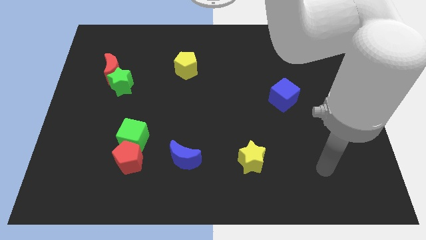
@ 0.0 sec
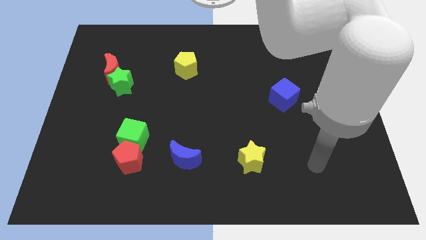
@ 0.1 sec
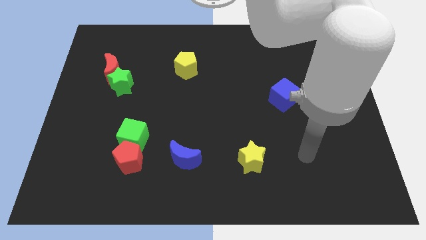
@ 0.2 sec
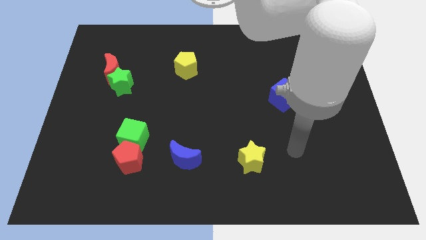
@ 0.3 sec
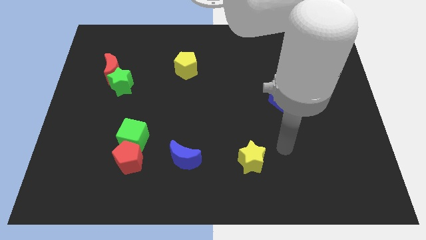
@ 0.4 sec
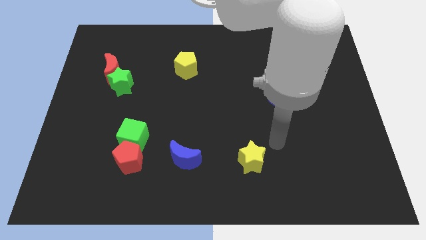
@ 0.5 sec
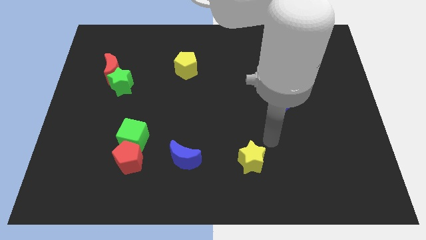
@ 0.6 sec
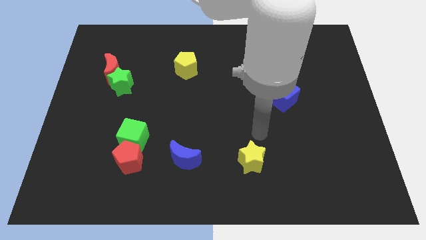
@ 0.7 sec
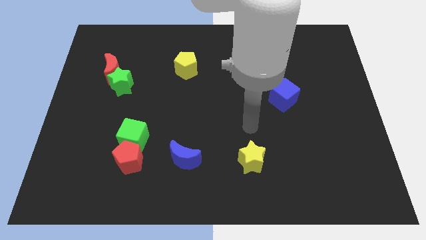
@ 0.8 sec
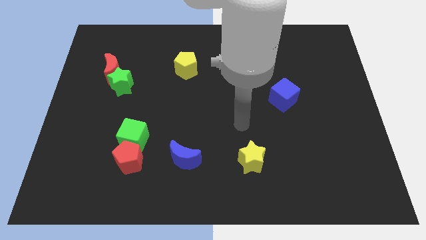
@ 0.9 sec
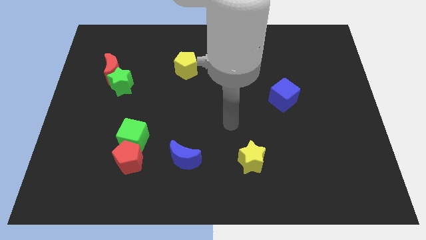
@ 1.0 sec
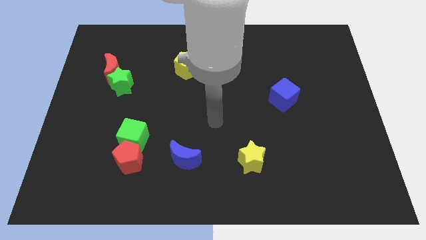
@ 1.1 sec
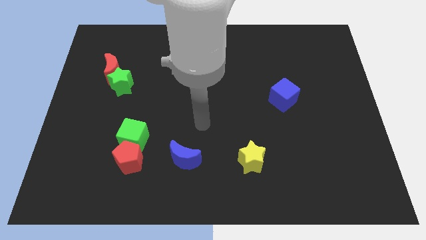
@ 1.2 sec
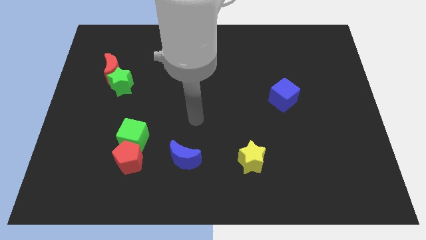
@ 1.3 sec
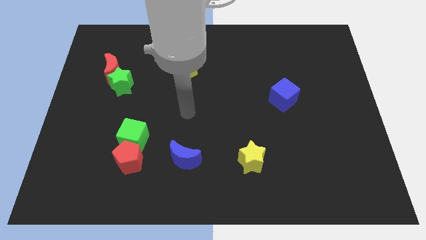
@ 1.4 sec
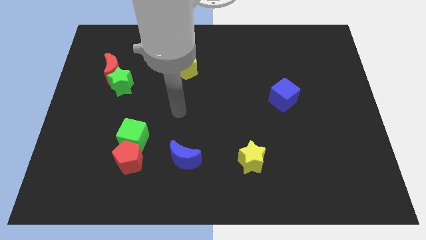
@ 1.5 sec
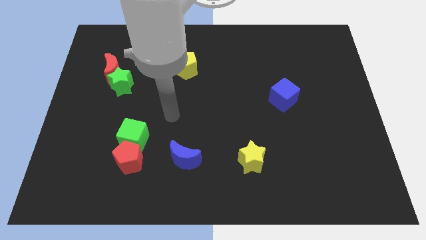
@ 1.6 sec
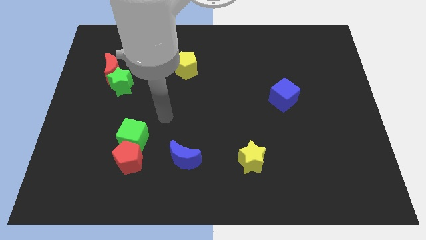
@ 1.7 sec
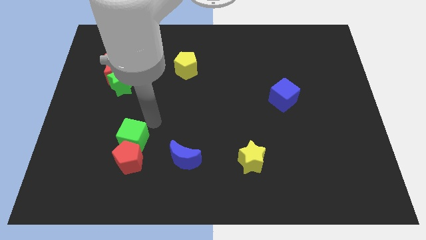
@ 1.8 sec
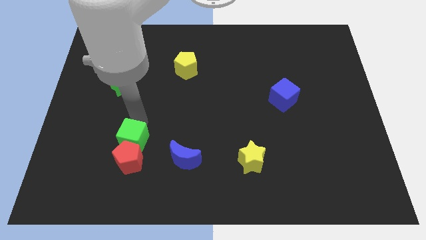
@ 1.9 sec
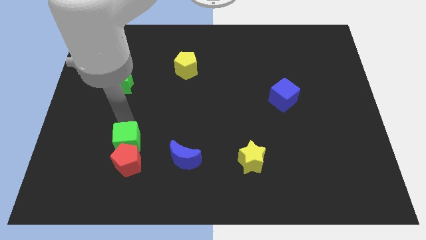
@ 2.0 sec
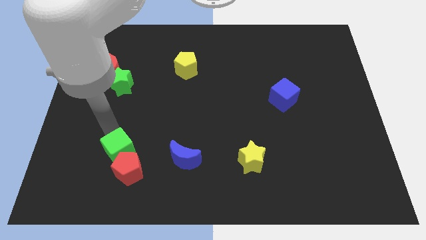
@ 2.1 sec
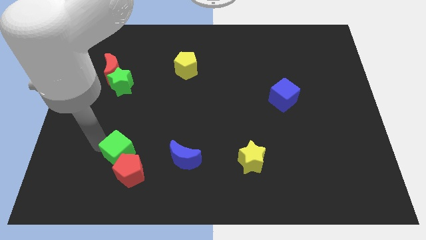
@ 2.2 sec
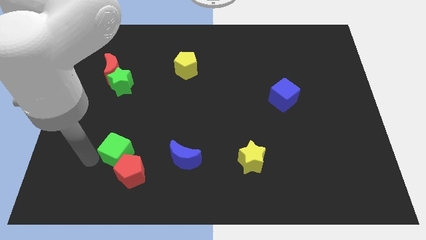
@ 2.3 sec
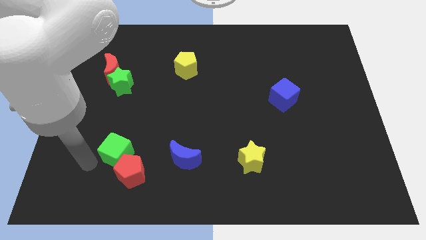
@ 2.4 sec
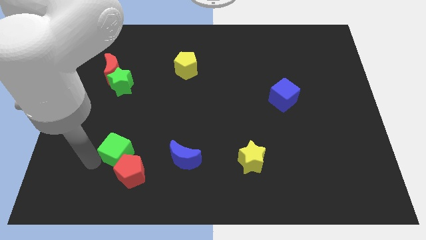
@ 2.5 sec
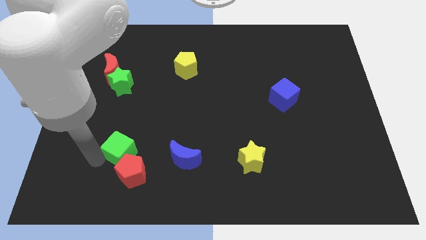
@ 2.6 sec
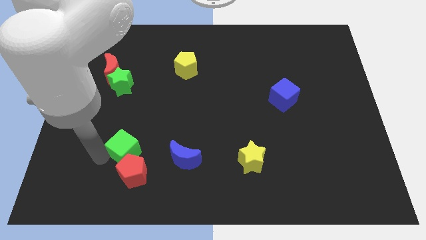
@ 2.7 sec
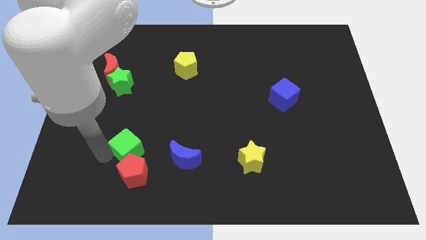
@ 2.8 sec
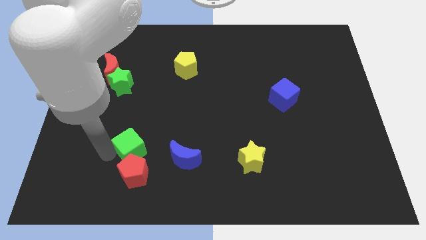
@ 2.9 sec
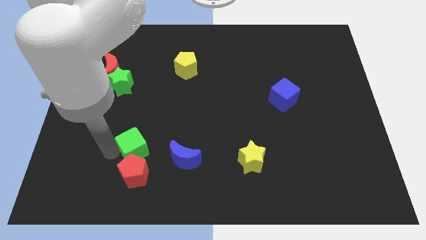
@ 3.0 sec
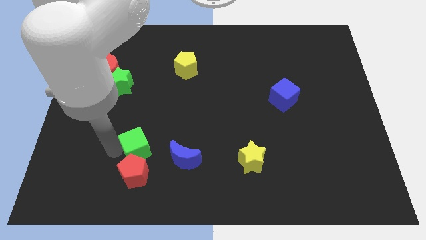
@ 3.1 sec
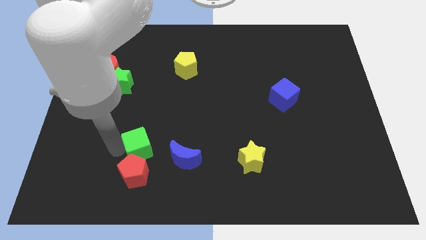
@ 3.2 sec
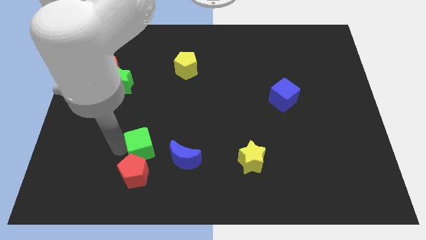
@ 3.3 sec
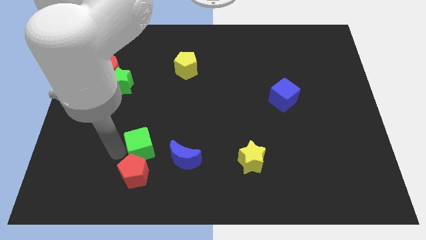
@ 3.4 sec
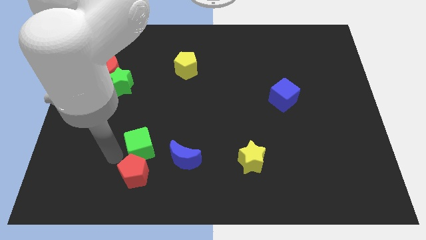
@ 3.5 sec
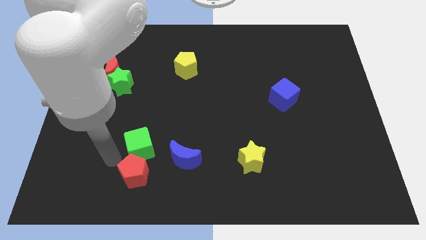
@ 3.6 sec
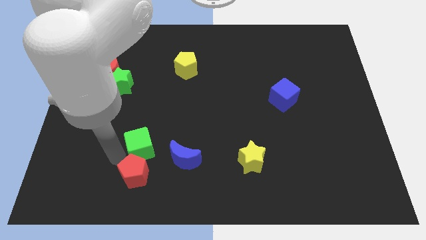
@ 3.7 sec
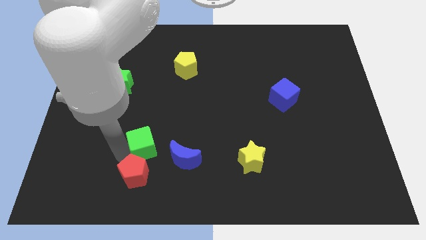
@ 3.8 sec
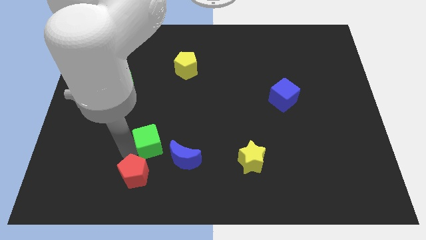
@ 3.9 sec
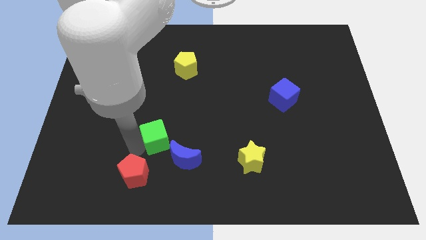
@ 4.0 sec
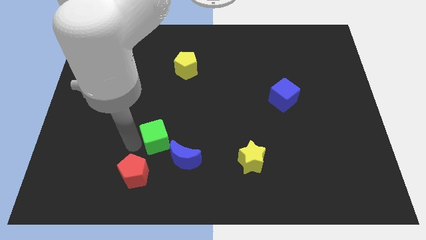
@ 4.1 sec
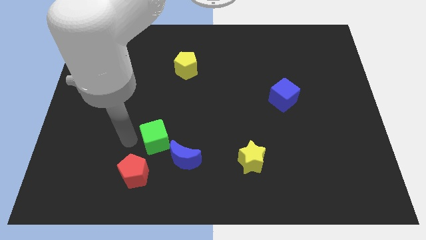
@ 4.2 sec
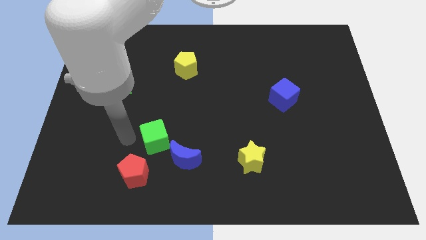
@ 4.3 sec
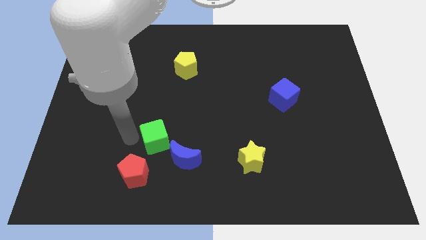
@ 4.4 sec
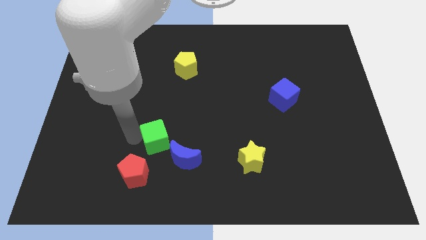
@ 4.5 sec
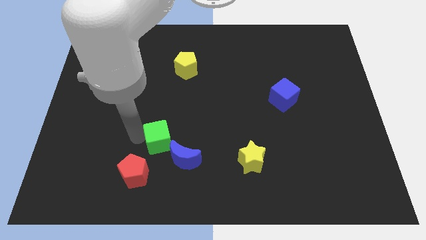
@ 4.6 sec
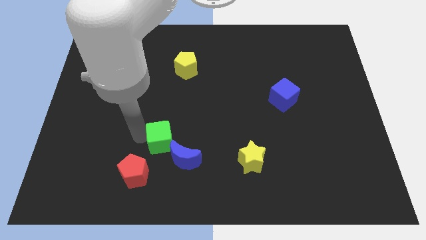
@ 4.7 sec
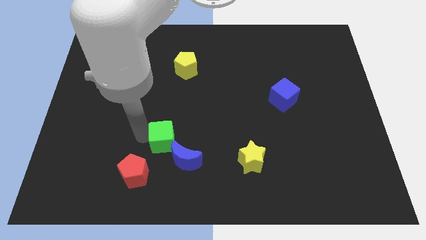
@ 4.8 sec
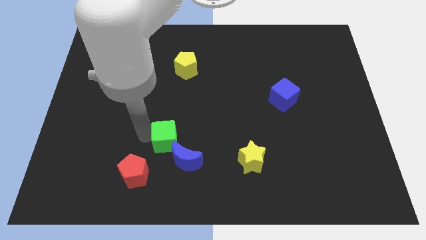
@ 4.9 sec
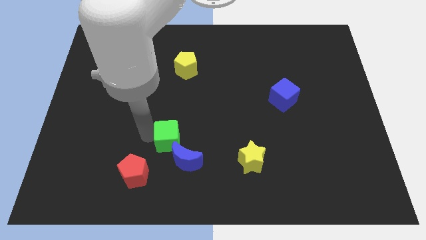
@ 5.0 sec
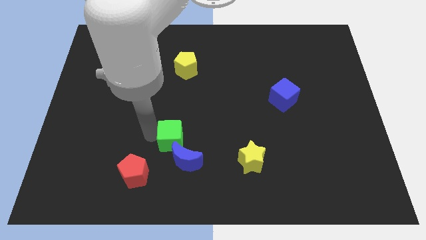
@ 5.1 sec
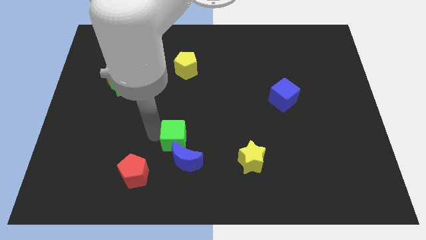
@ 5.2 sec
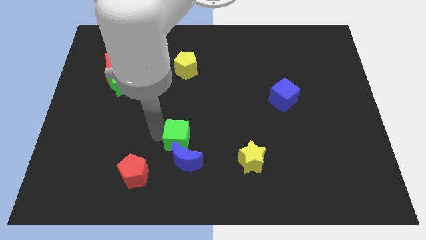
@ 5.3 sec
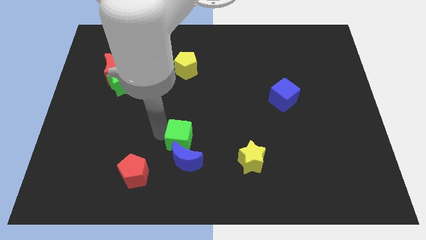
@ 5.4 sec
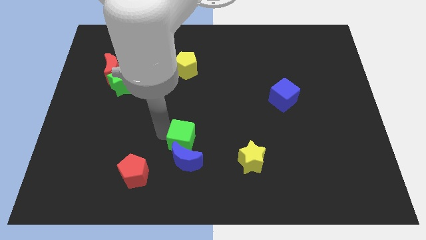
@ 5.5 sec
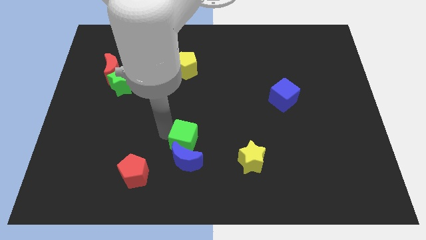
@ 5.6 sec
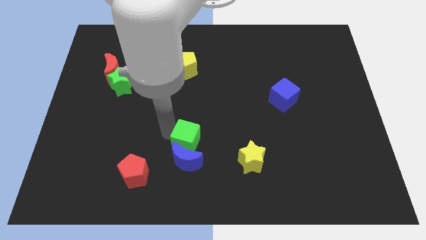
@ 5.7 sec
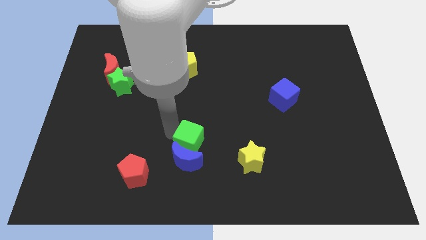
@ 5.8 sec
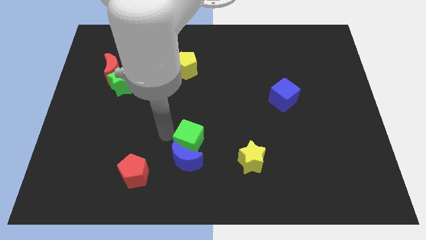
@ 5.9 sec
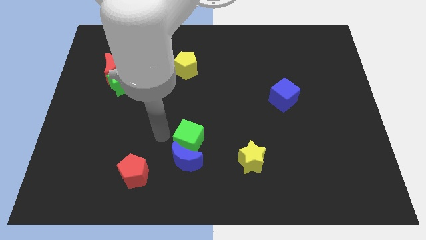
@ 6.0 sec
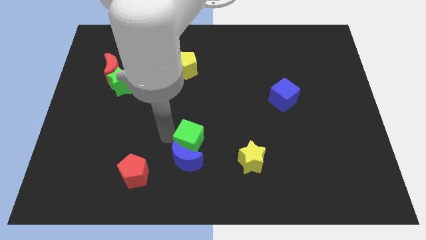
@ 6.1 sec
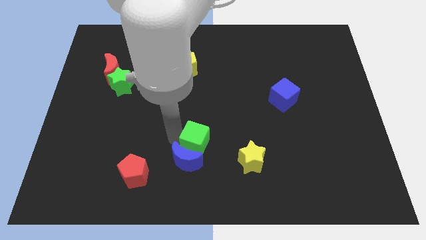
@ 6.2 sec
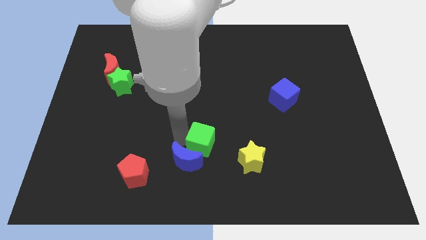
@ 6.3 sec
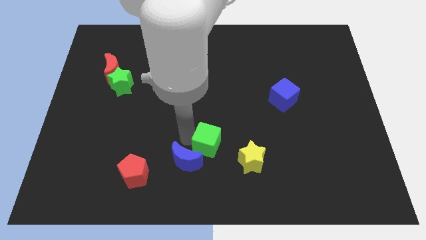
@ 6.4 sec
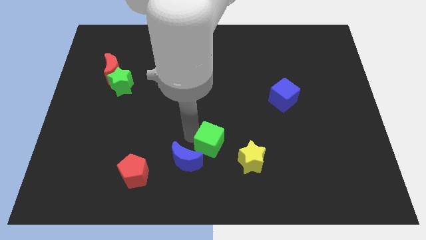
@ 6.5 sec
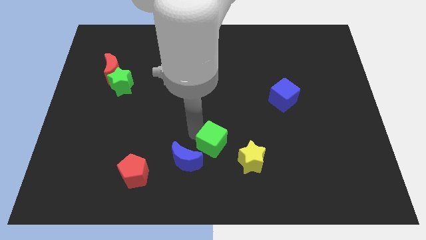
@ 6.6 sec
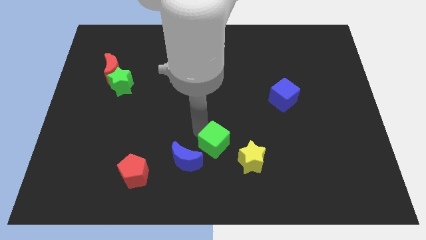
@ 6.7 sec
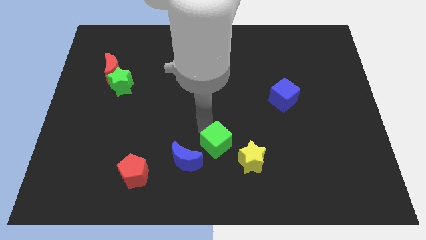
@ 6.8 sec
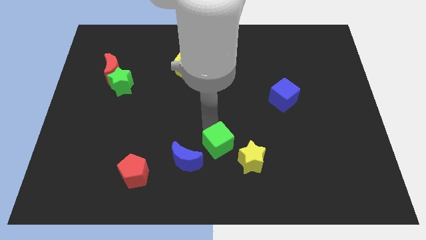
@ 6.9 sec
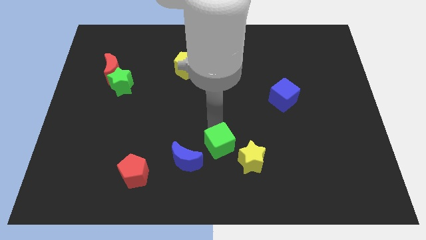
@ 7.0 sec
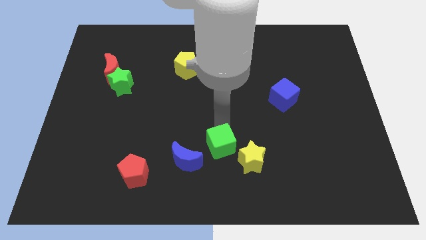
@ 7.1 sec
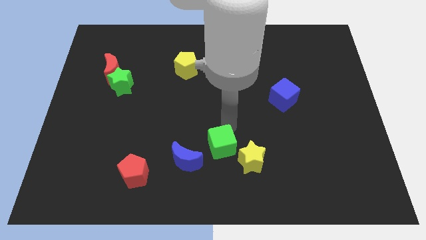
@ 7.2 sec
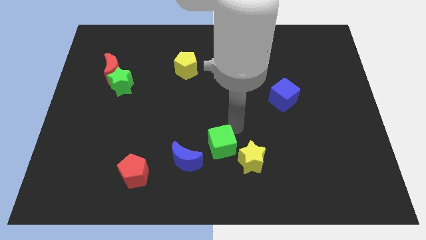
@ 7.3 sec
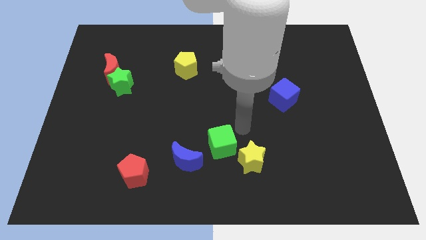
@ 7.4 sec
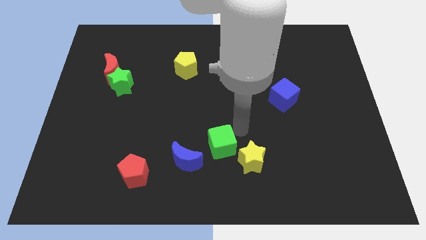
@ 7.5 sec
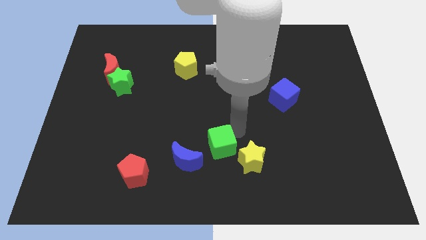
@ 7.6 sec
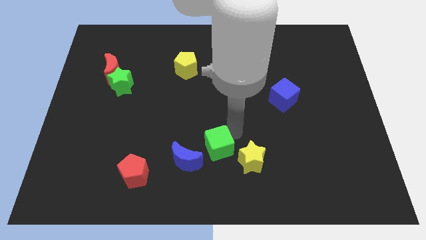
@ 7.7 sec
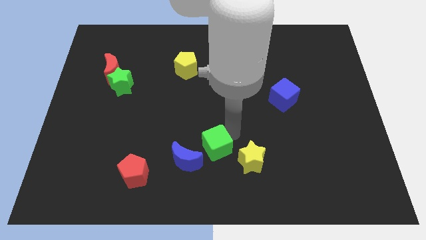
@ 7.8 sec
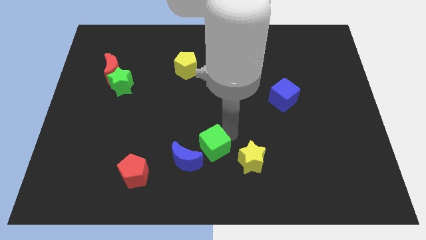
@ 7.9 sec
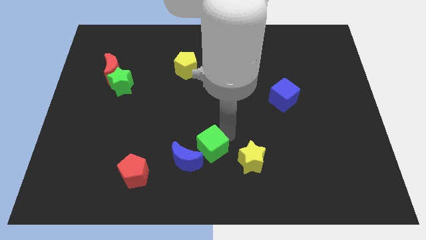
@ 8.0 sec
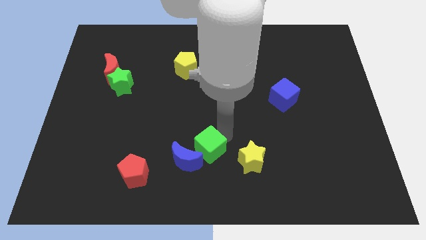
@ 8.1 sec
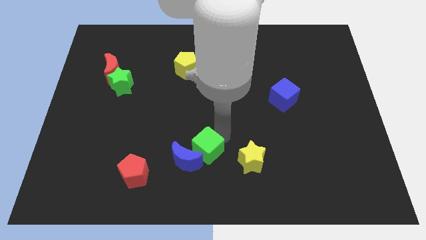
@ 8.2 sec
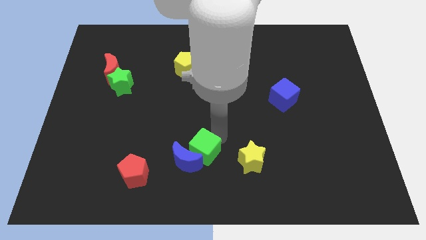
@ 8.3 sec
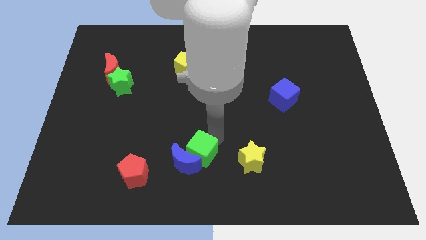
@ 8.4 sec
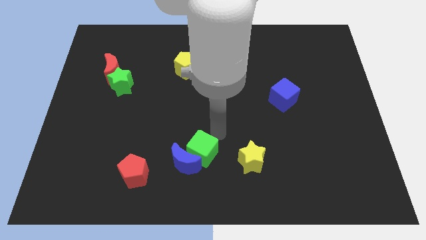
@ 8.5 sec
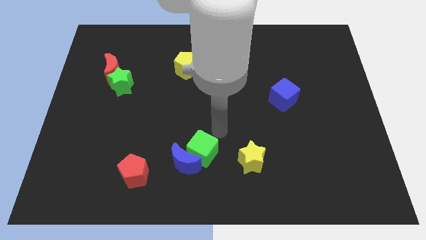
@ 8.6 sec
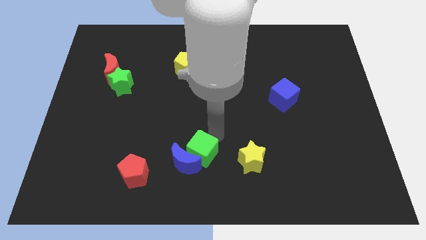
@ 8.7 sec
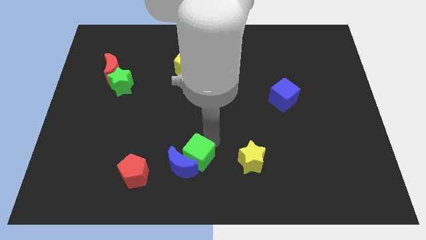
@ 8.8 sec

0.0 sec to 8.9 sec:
push the green cube just right of the red pentagon
